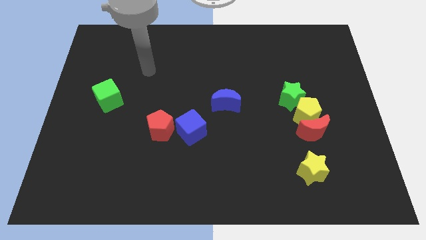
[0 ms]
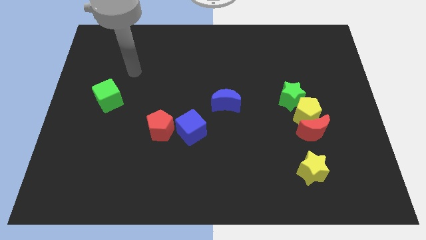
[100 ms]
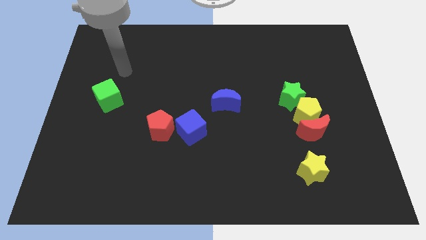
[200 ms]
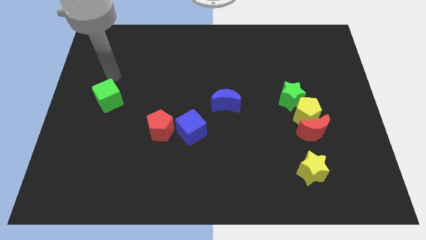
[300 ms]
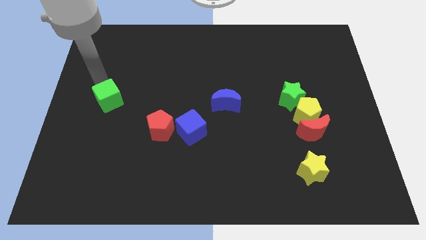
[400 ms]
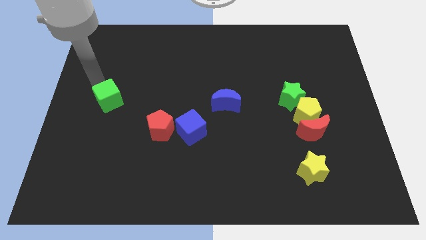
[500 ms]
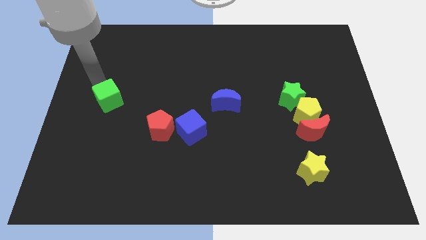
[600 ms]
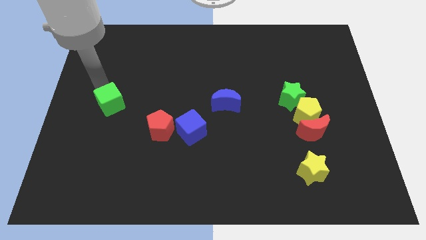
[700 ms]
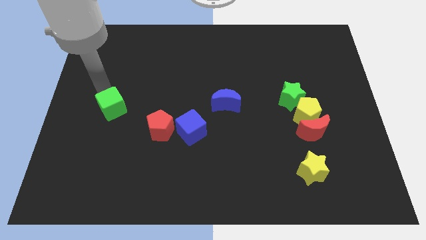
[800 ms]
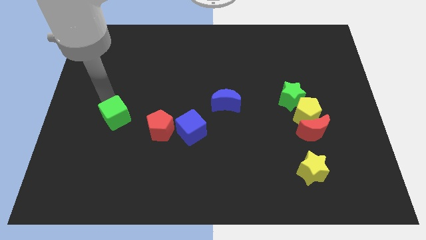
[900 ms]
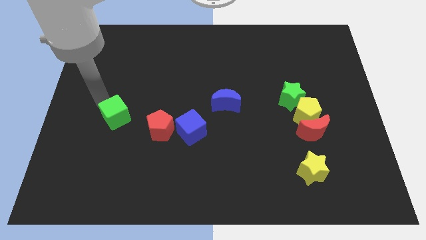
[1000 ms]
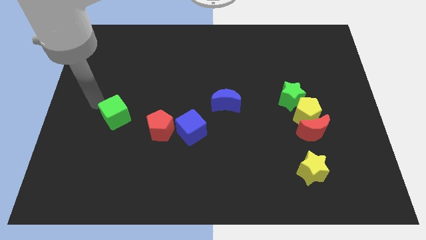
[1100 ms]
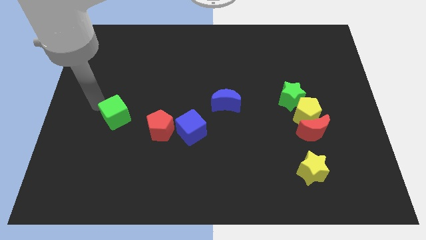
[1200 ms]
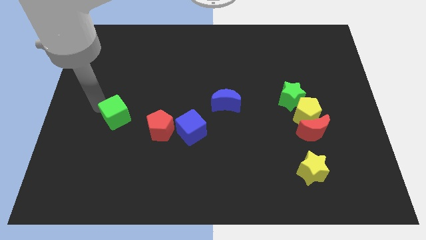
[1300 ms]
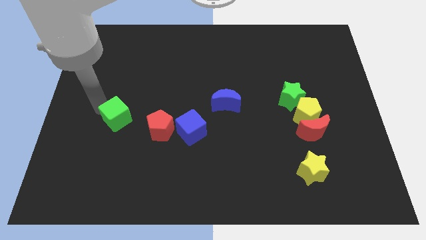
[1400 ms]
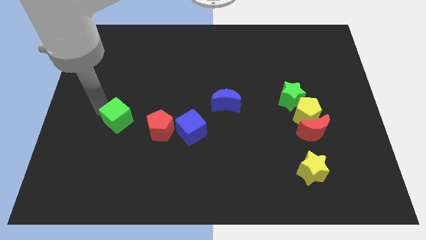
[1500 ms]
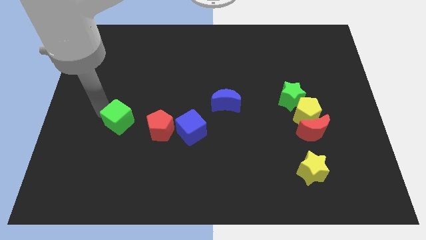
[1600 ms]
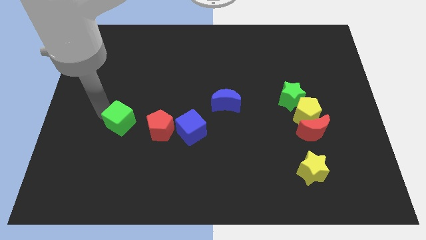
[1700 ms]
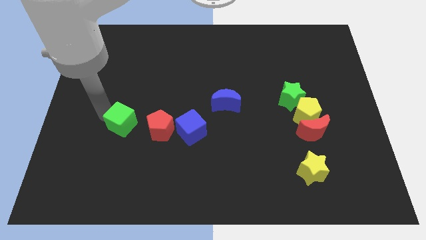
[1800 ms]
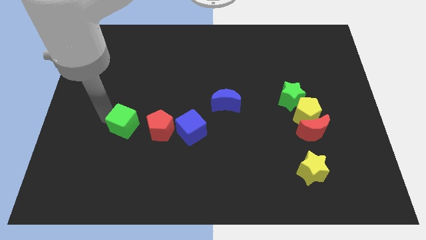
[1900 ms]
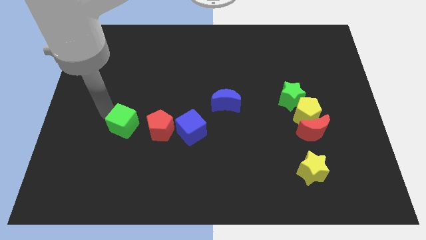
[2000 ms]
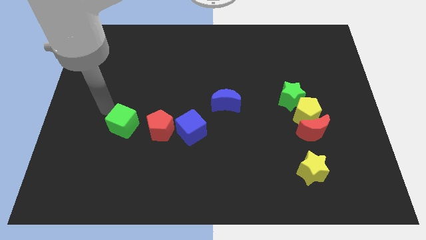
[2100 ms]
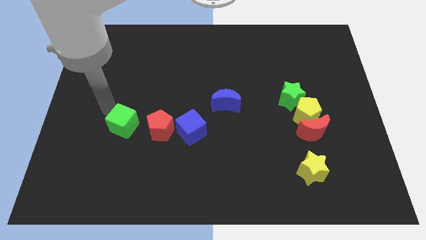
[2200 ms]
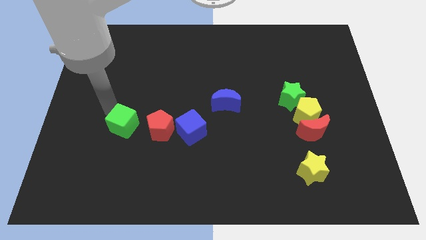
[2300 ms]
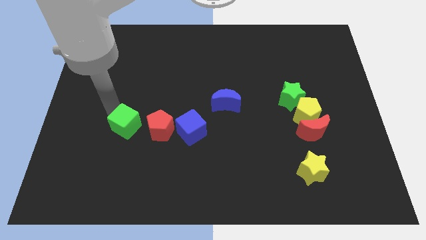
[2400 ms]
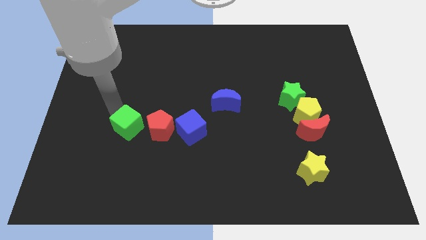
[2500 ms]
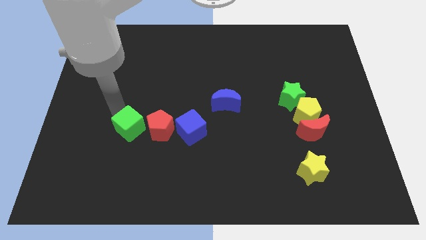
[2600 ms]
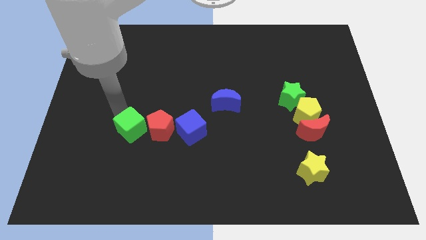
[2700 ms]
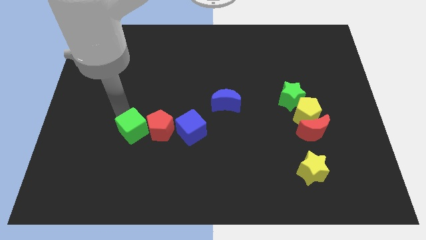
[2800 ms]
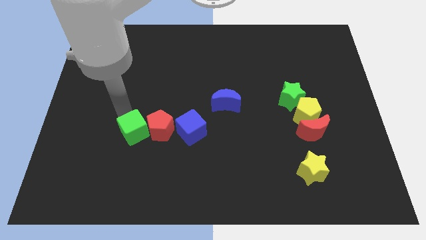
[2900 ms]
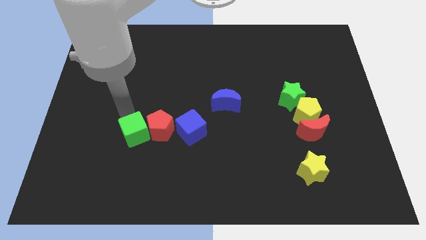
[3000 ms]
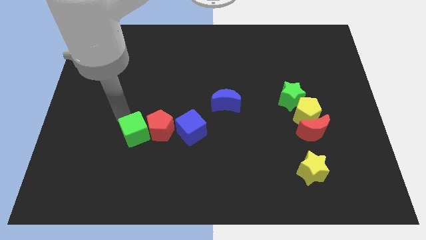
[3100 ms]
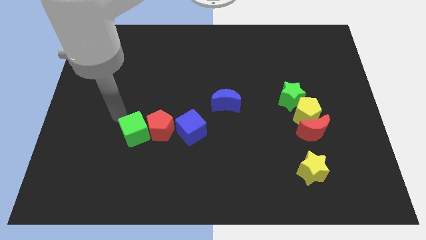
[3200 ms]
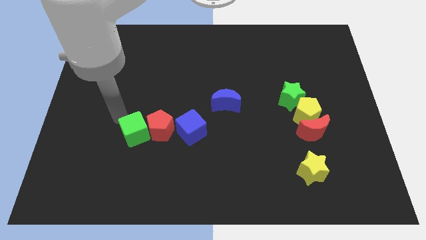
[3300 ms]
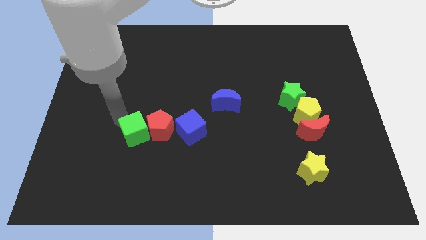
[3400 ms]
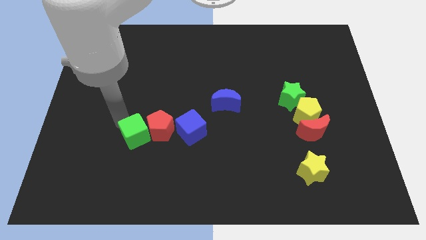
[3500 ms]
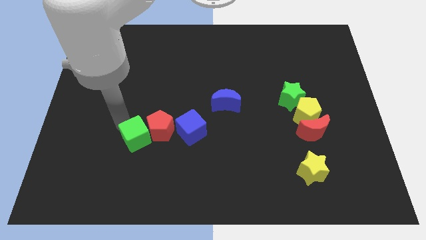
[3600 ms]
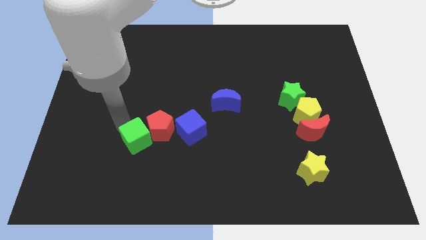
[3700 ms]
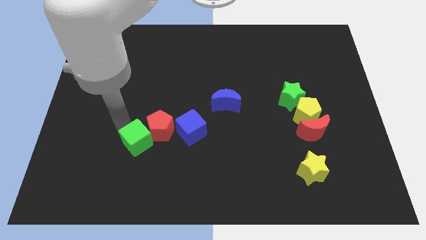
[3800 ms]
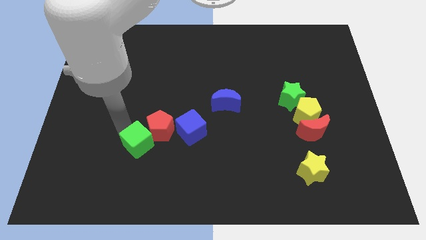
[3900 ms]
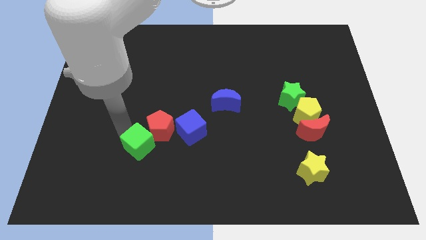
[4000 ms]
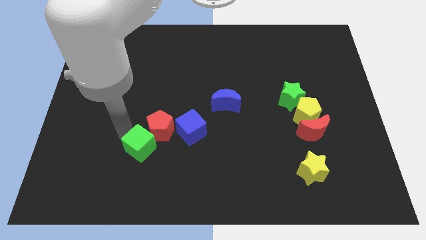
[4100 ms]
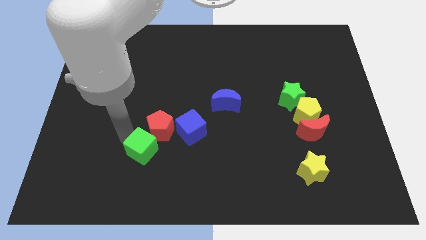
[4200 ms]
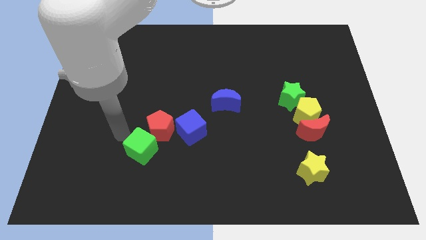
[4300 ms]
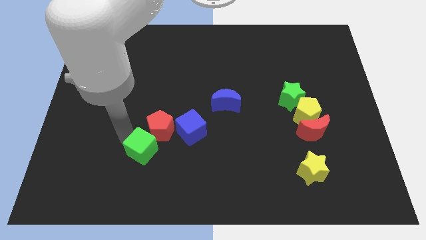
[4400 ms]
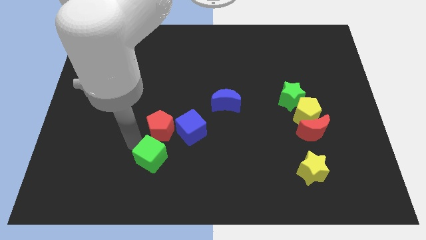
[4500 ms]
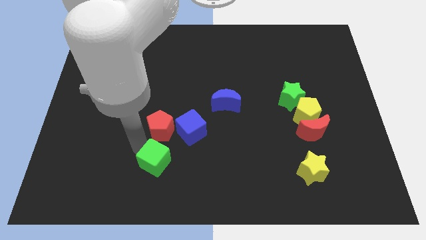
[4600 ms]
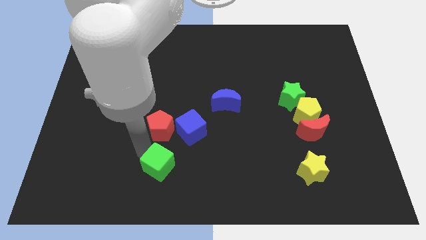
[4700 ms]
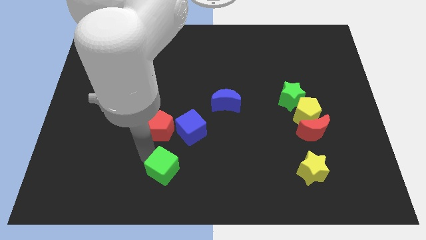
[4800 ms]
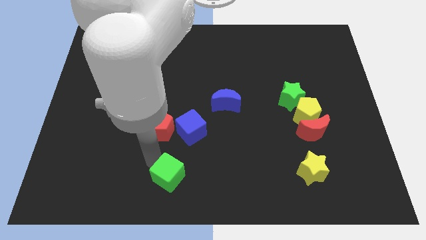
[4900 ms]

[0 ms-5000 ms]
slide the green cube to the bottom side
